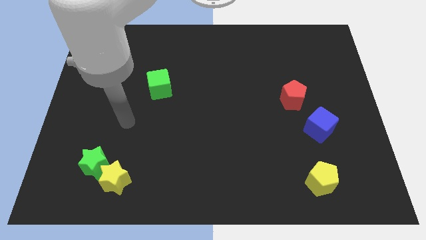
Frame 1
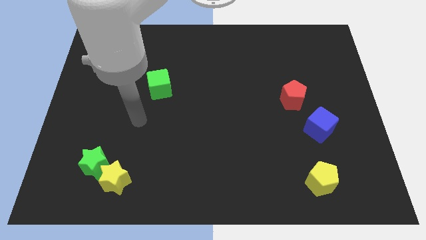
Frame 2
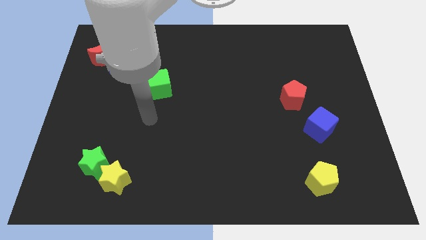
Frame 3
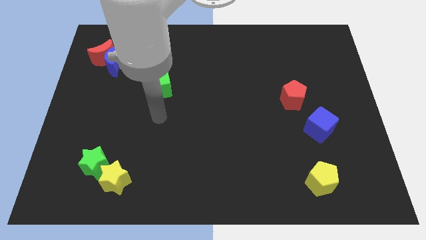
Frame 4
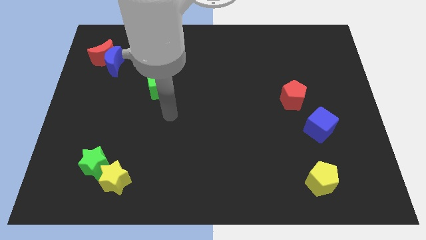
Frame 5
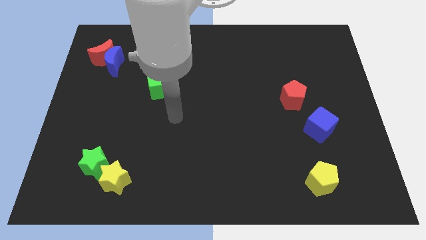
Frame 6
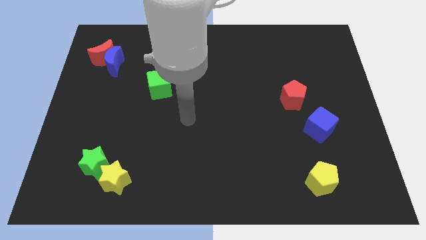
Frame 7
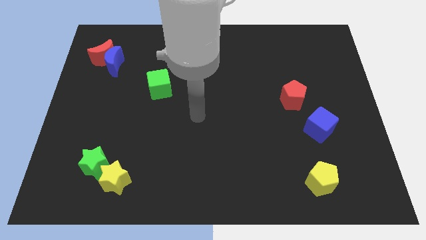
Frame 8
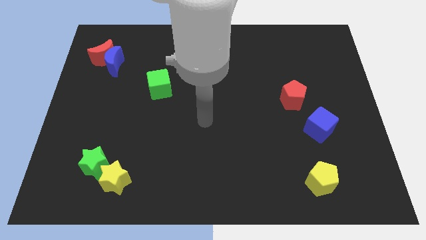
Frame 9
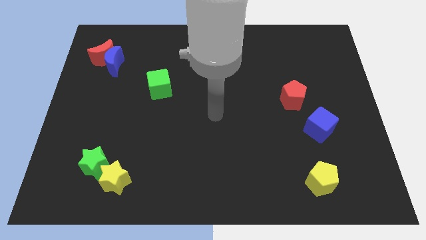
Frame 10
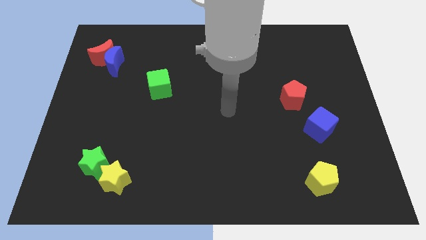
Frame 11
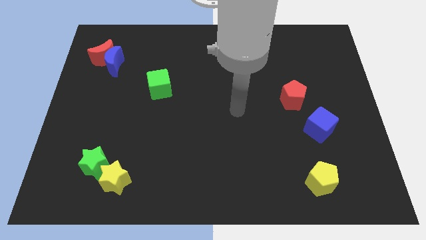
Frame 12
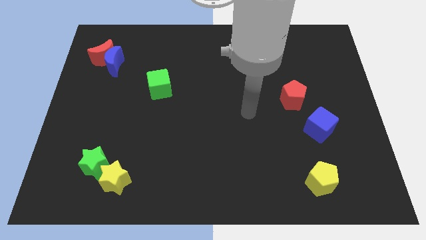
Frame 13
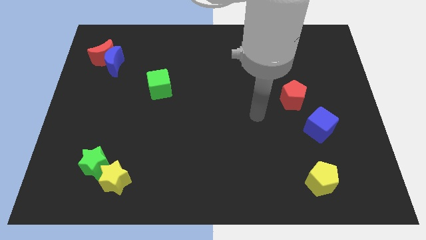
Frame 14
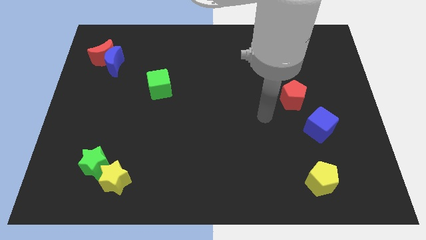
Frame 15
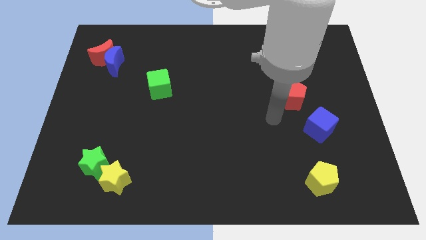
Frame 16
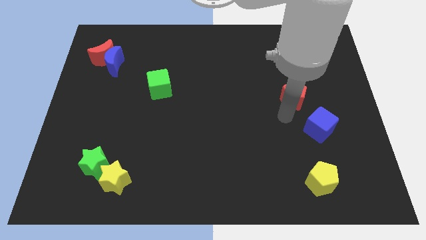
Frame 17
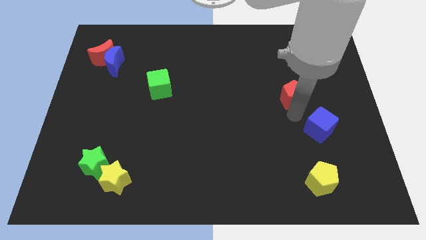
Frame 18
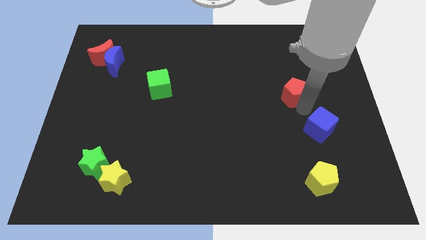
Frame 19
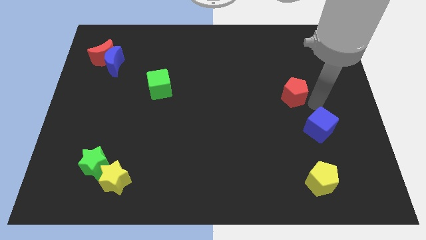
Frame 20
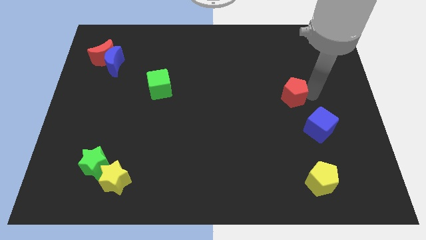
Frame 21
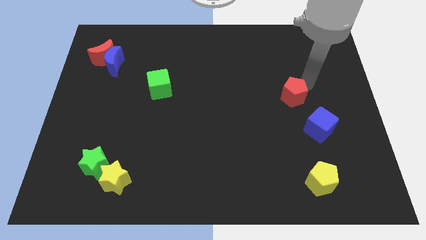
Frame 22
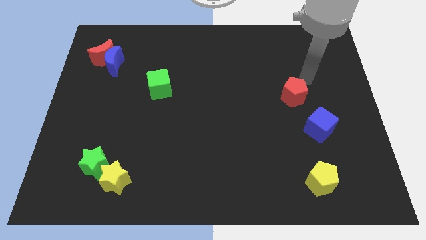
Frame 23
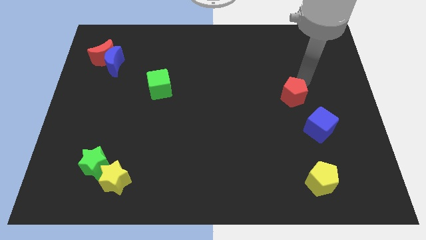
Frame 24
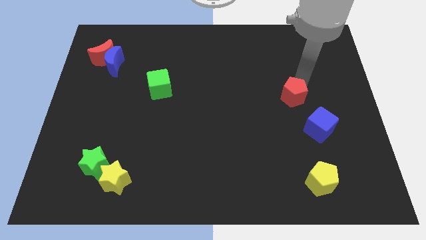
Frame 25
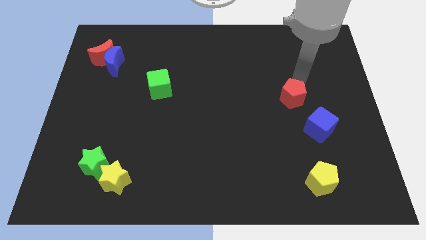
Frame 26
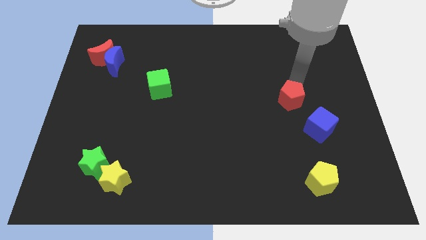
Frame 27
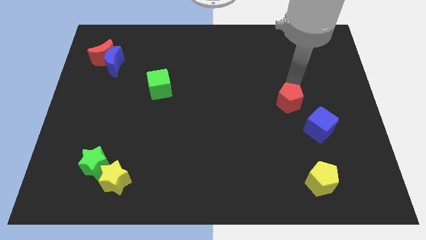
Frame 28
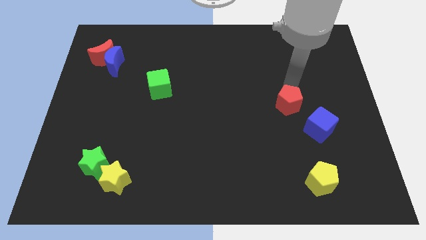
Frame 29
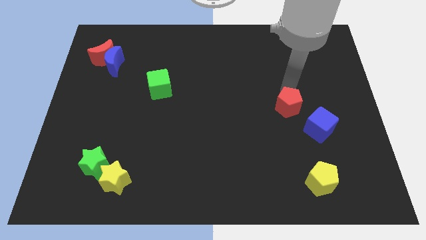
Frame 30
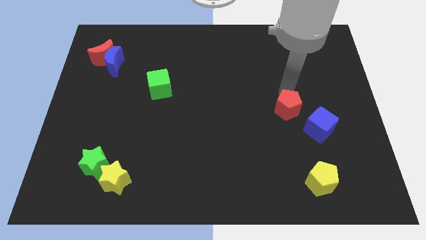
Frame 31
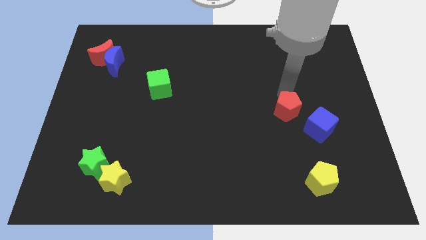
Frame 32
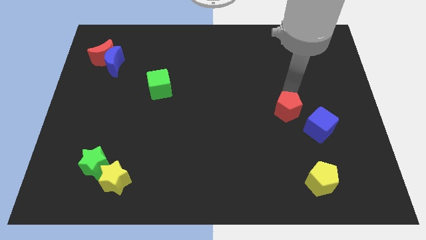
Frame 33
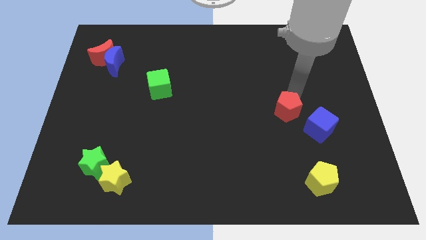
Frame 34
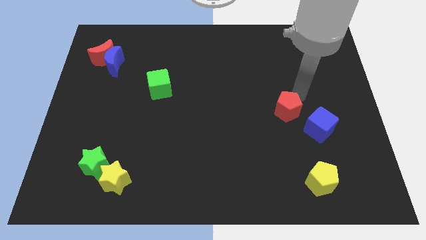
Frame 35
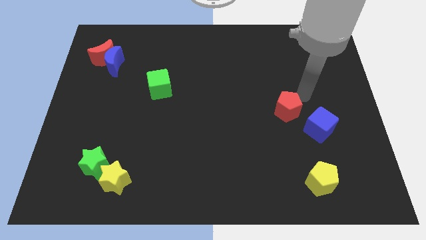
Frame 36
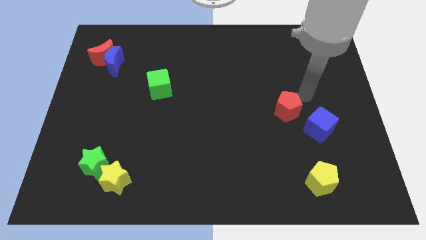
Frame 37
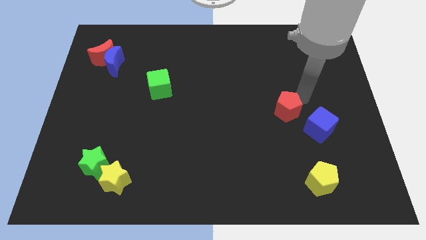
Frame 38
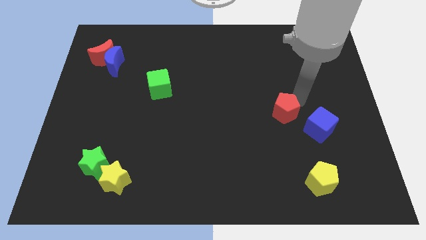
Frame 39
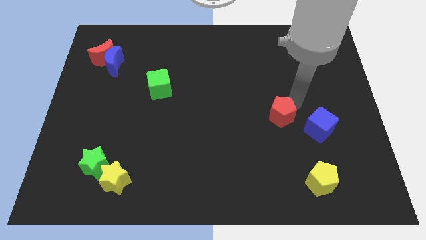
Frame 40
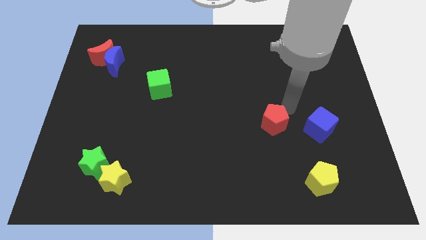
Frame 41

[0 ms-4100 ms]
slightly slide the red pentagon downwards and to the left

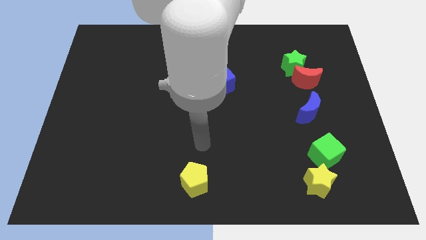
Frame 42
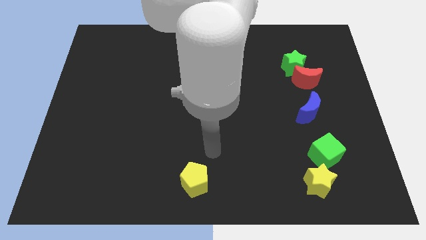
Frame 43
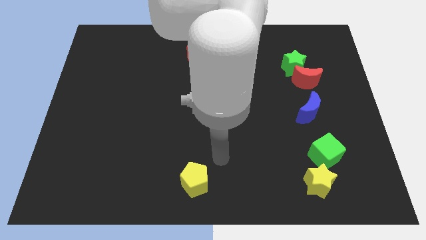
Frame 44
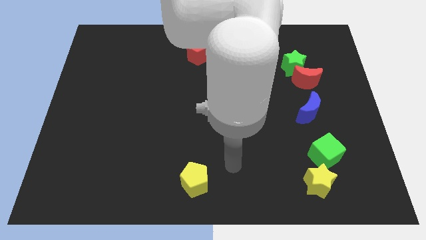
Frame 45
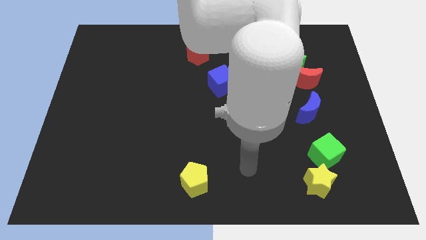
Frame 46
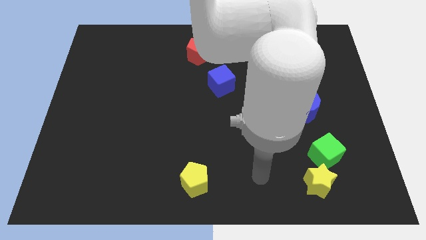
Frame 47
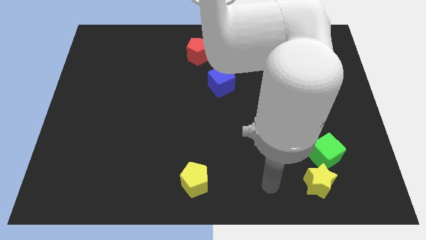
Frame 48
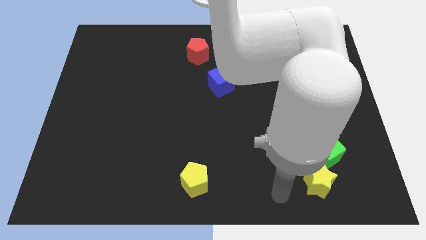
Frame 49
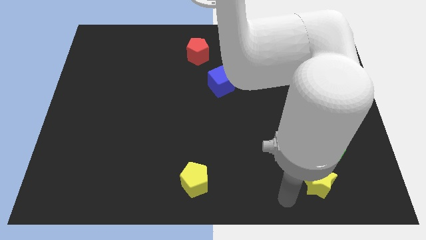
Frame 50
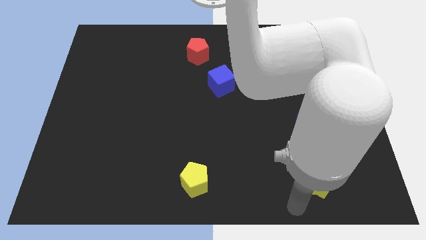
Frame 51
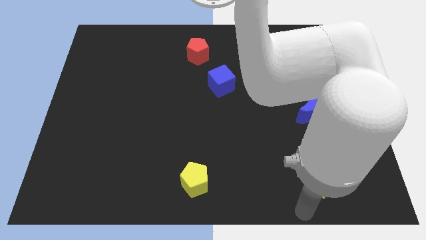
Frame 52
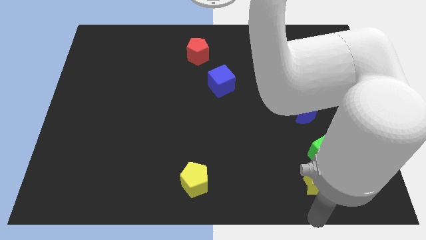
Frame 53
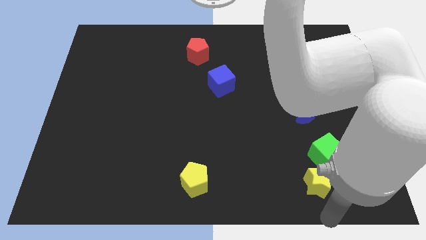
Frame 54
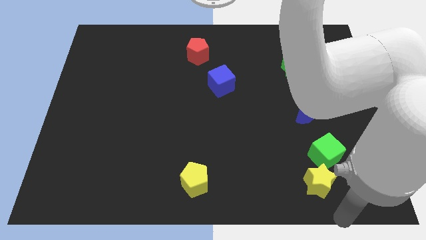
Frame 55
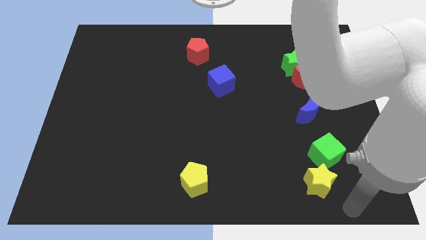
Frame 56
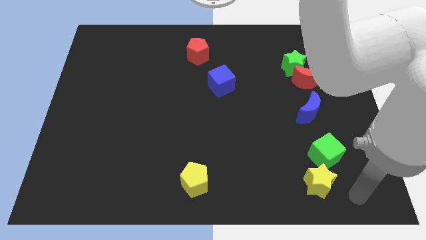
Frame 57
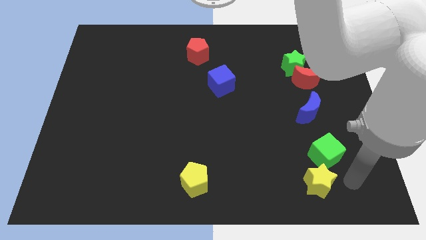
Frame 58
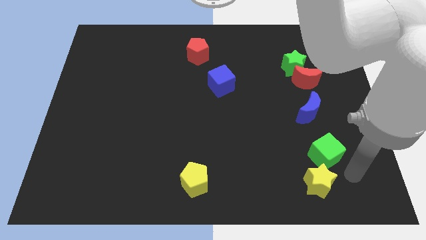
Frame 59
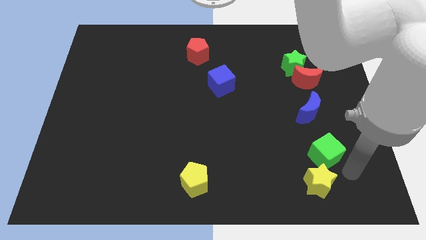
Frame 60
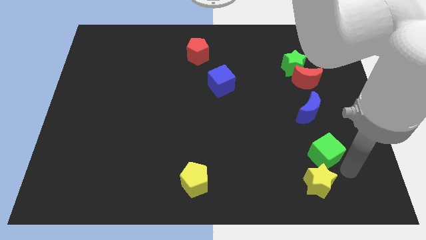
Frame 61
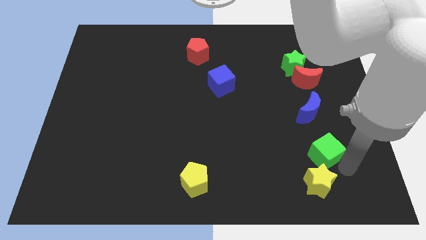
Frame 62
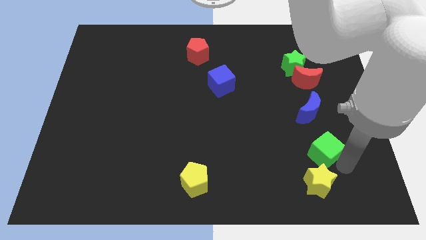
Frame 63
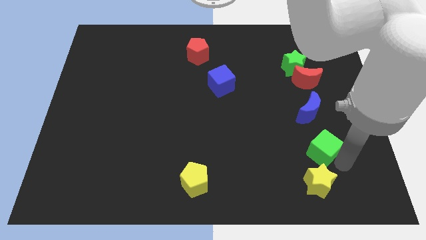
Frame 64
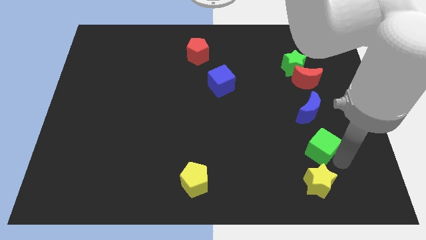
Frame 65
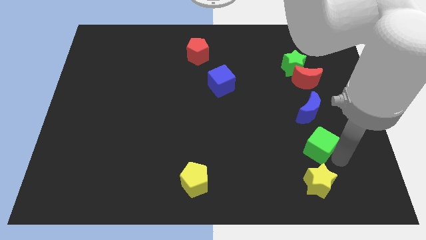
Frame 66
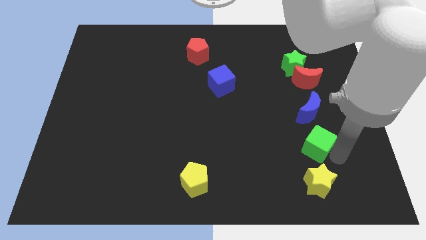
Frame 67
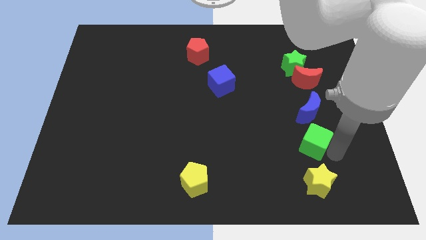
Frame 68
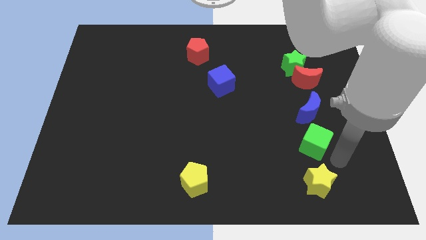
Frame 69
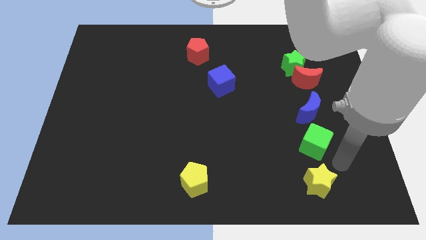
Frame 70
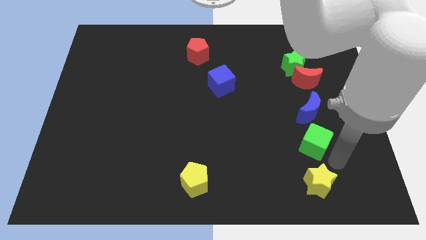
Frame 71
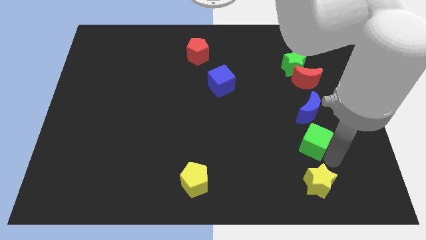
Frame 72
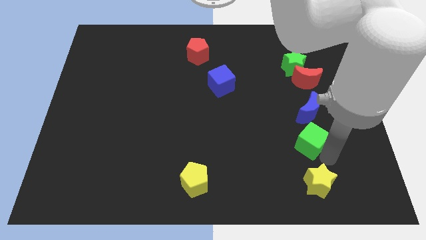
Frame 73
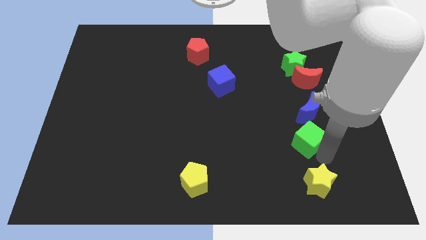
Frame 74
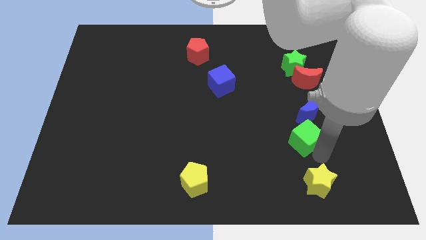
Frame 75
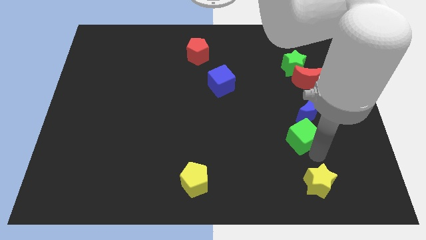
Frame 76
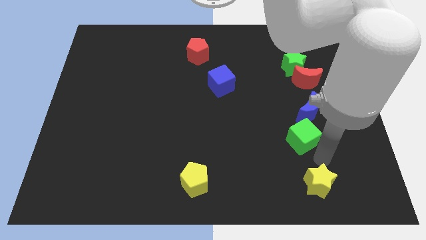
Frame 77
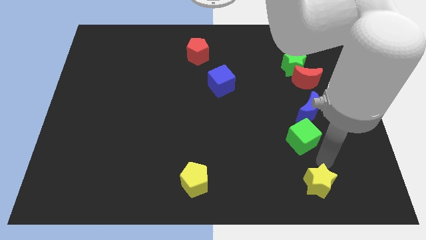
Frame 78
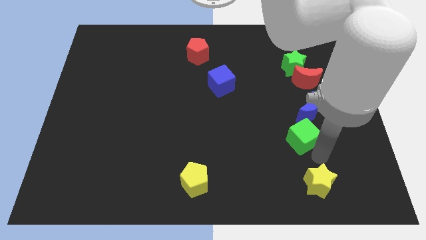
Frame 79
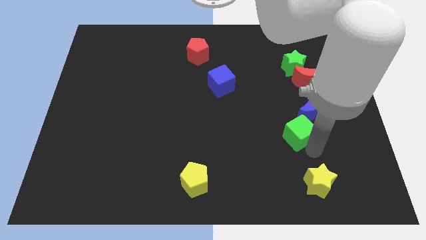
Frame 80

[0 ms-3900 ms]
move the green cube a little up and to the left

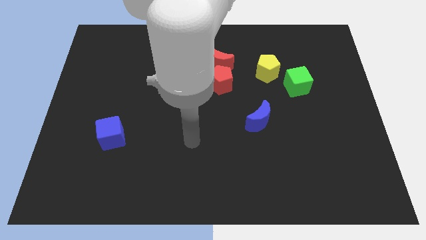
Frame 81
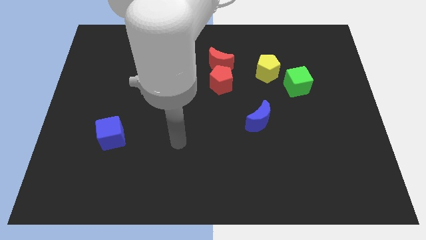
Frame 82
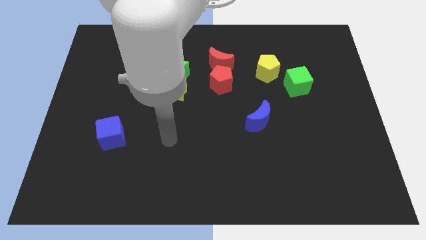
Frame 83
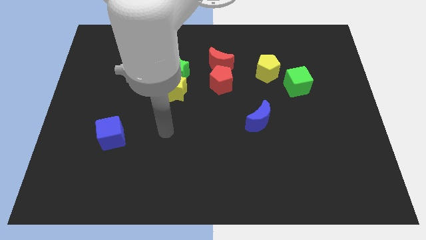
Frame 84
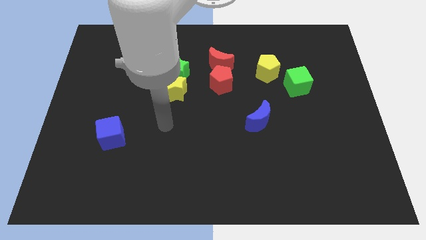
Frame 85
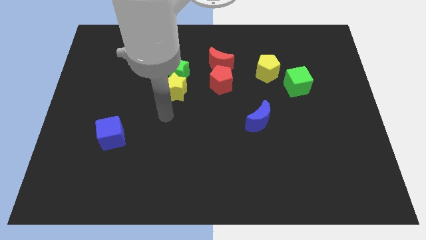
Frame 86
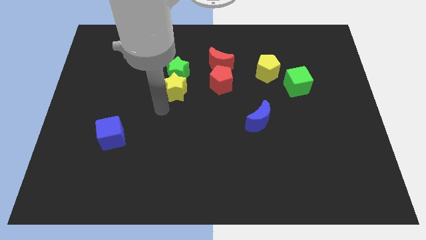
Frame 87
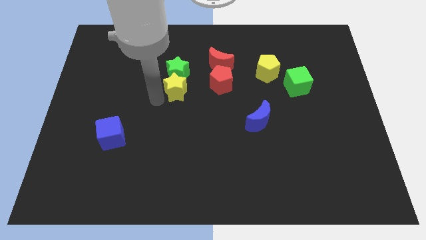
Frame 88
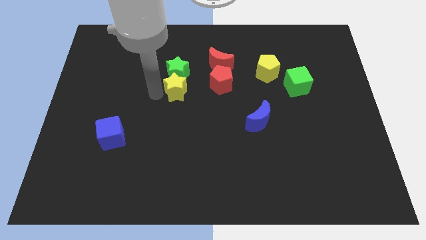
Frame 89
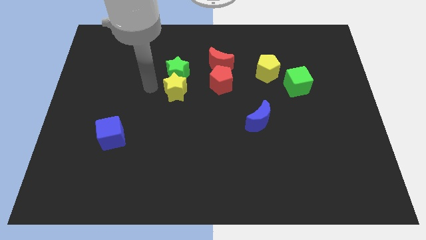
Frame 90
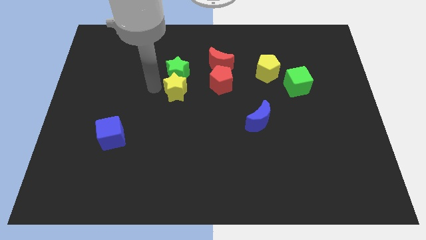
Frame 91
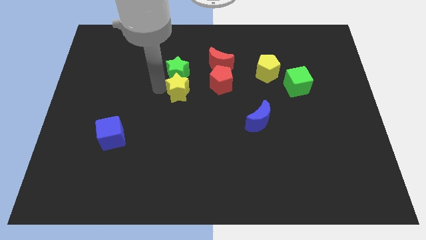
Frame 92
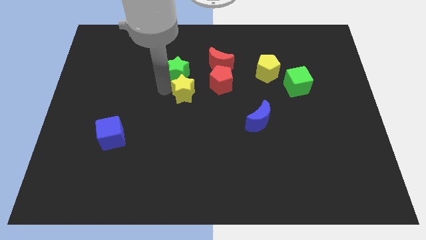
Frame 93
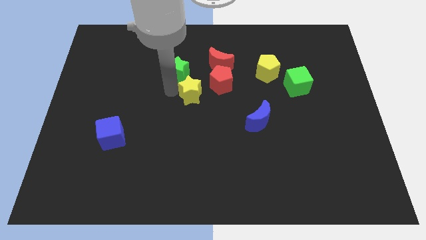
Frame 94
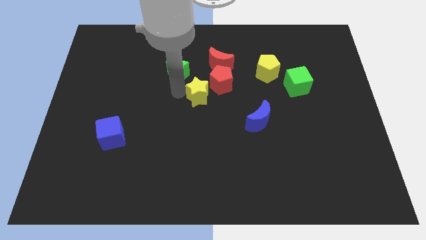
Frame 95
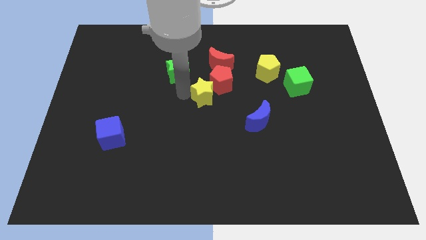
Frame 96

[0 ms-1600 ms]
slightly slide the yellow star to the right
